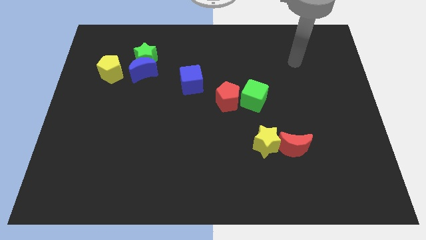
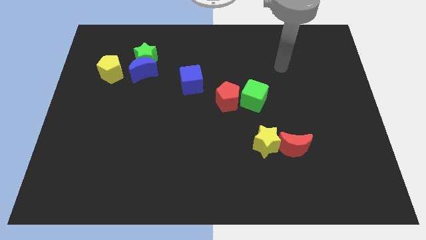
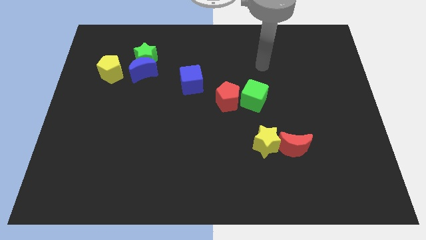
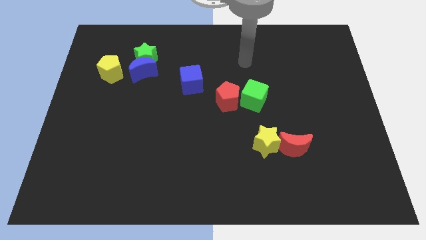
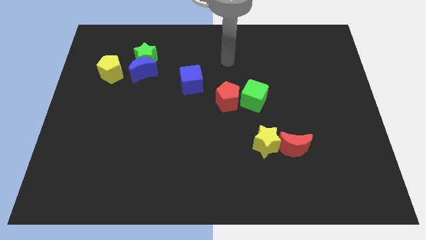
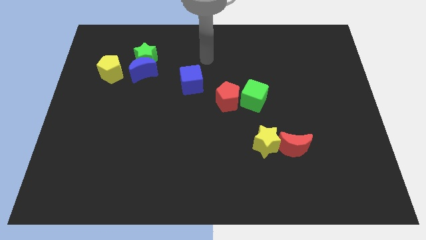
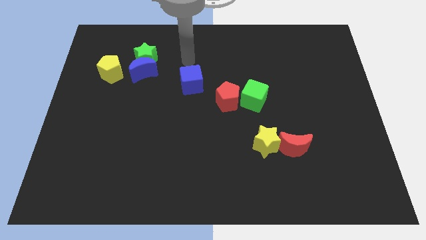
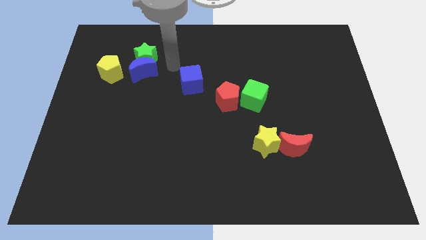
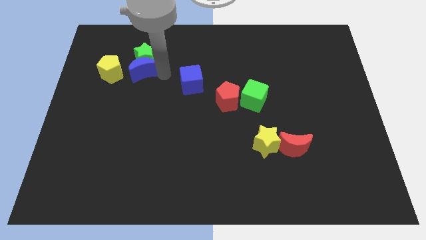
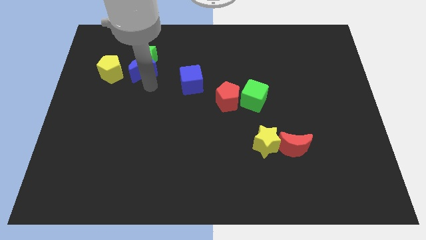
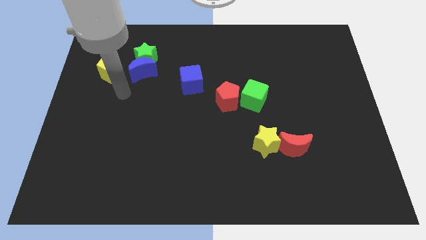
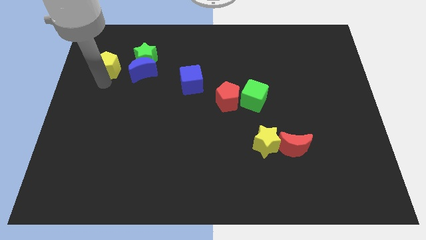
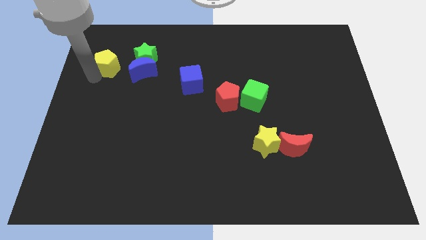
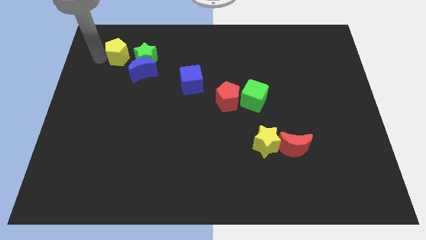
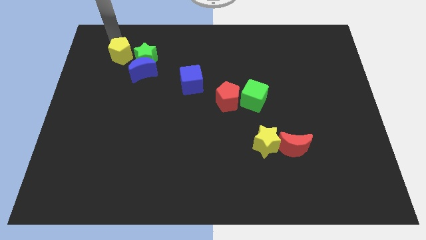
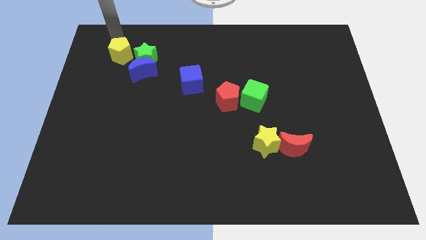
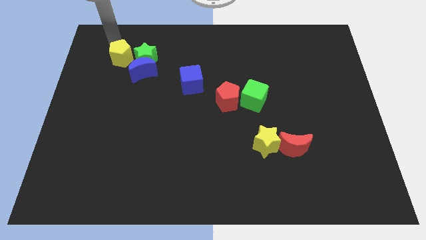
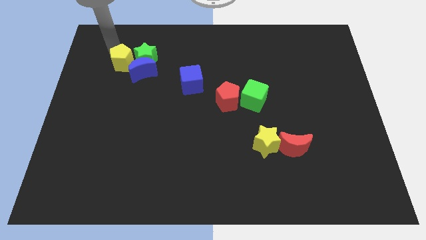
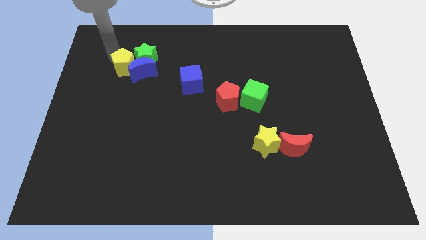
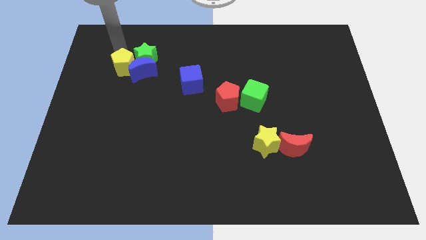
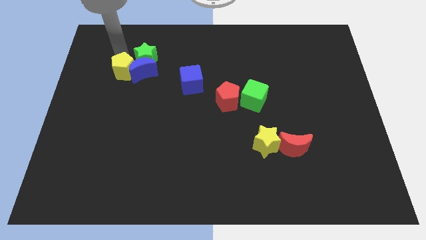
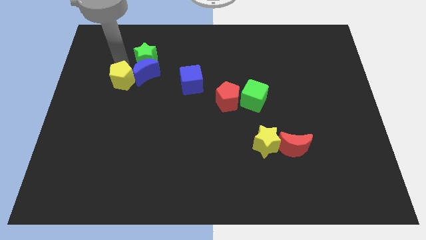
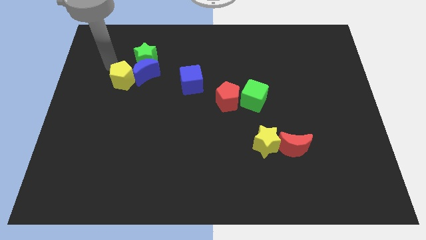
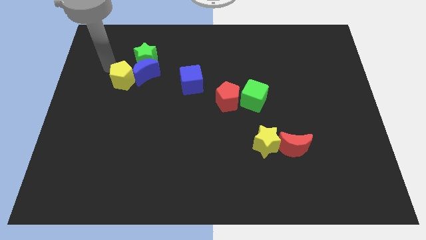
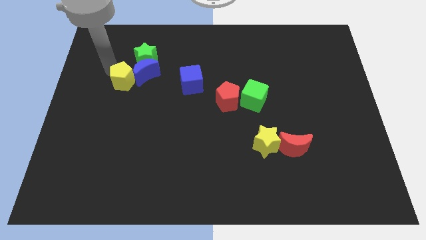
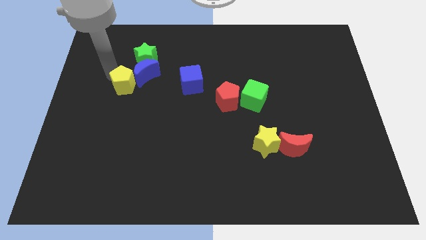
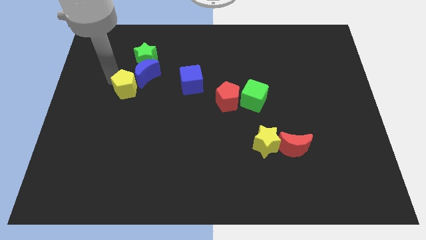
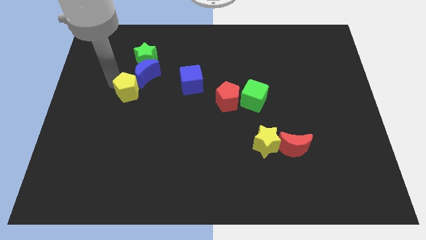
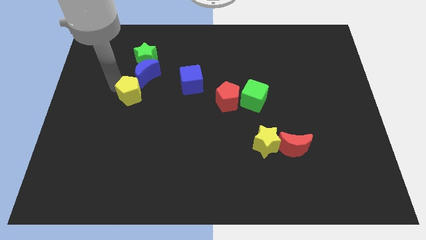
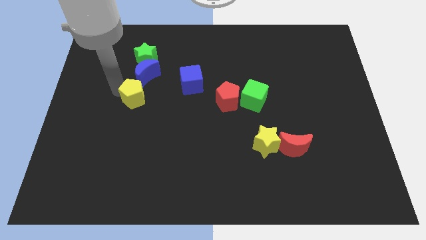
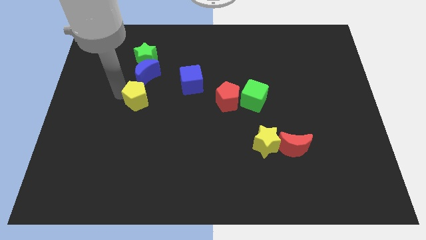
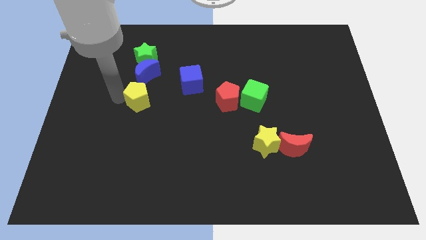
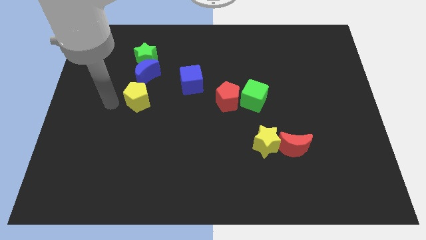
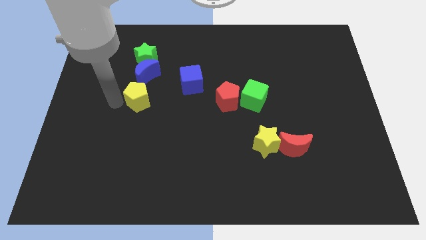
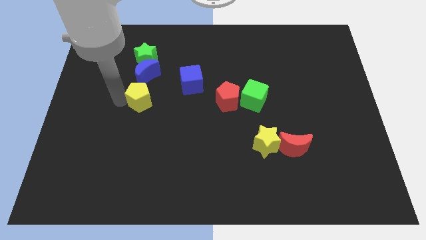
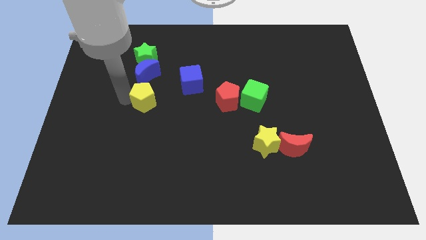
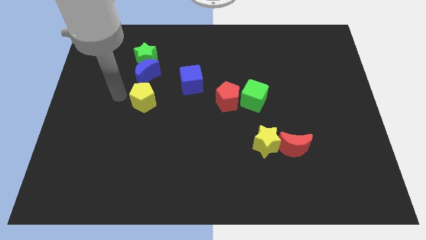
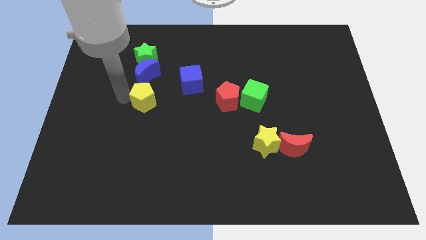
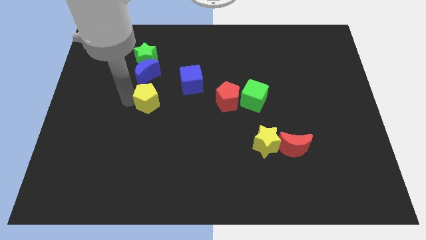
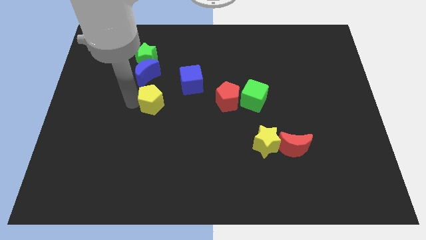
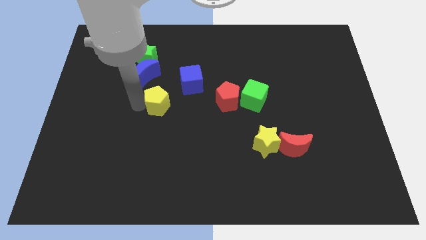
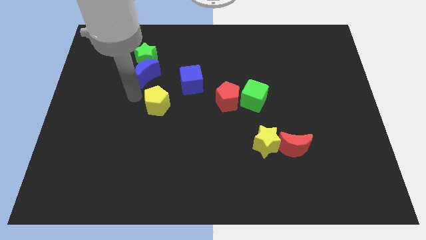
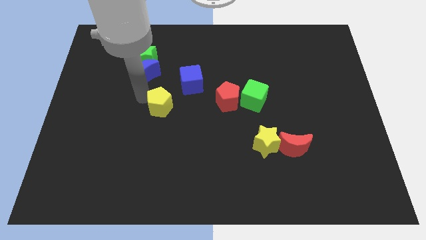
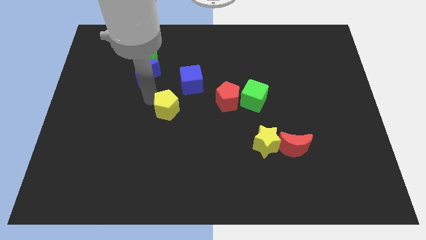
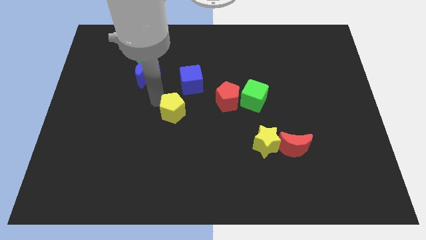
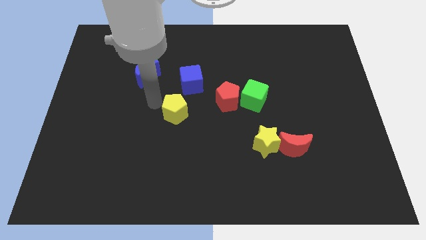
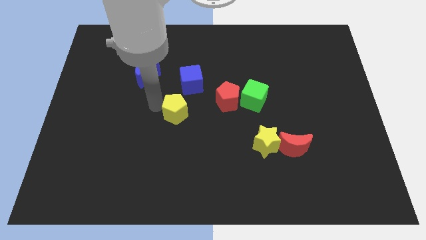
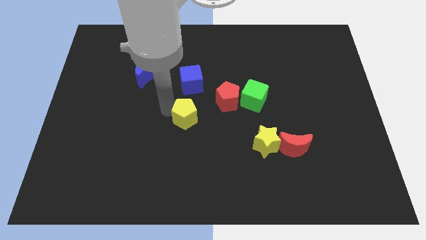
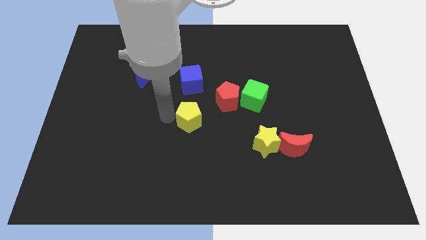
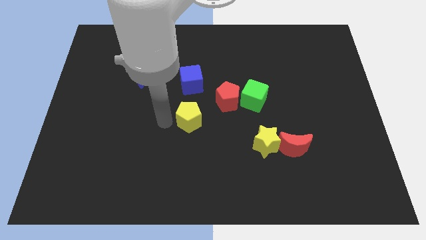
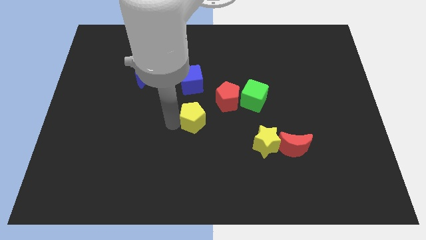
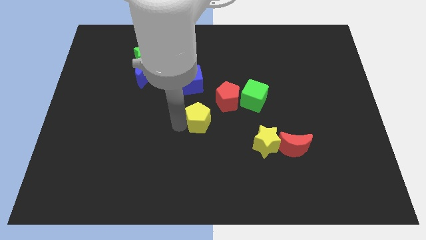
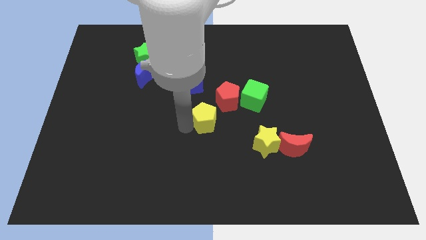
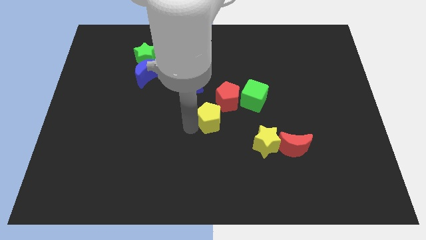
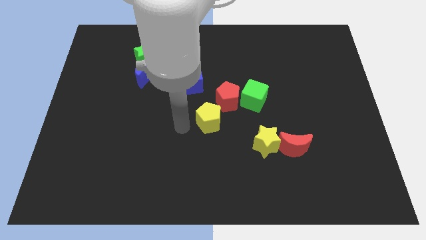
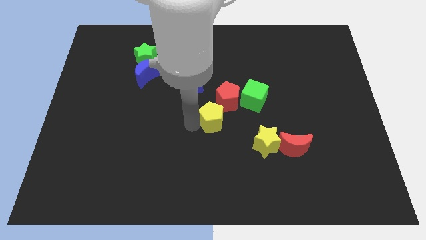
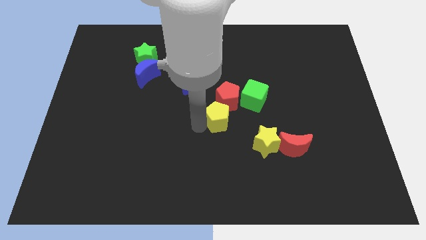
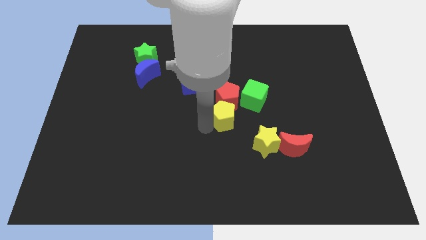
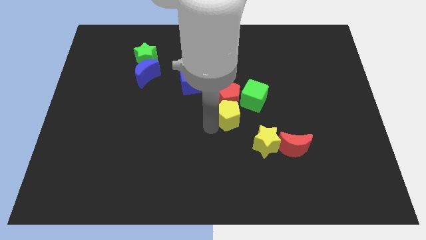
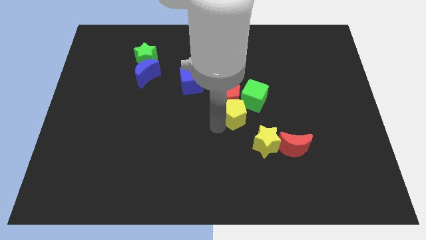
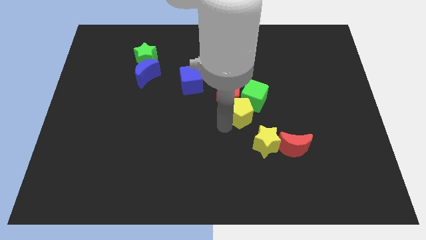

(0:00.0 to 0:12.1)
put the yellow pentagon towards the green cube

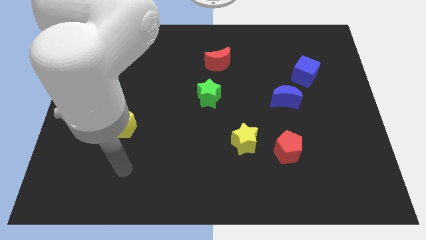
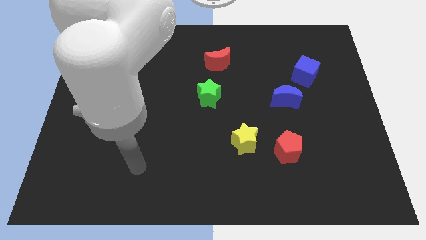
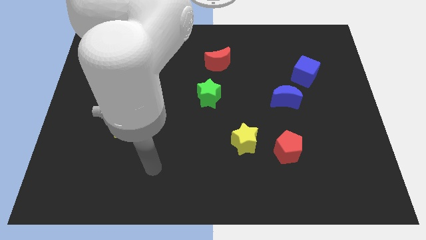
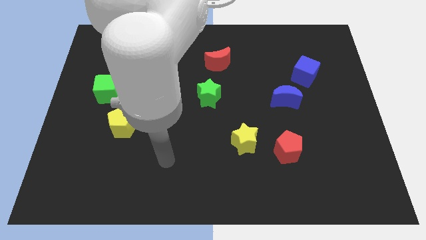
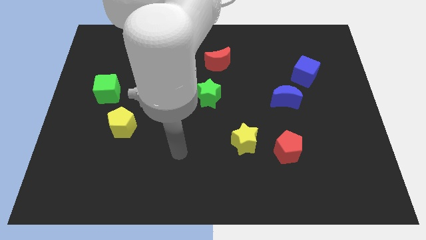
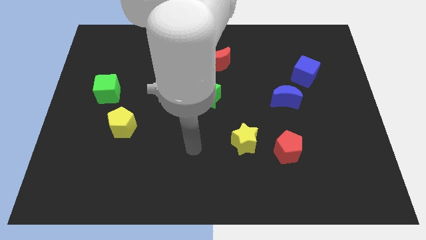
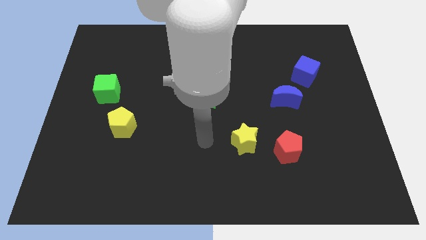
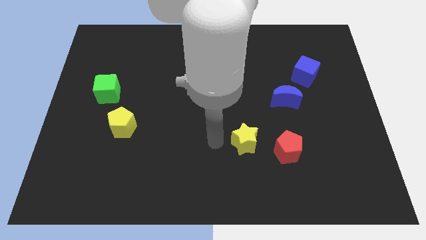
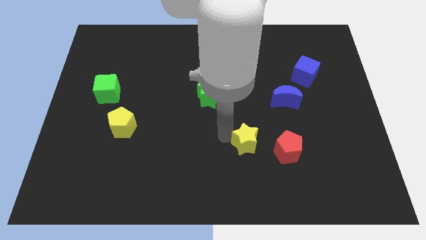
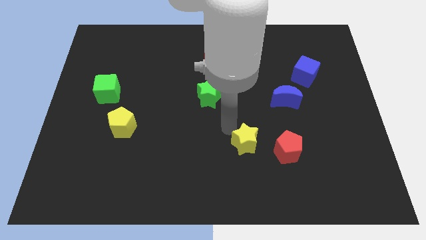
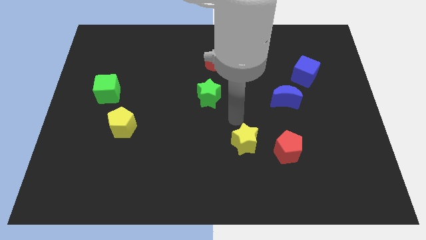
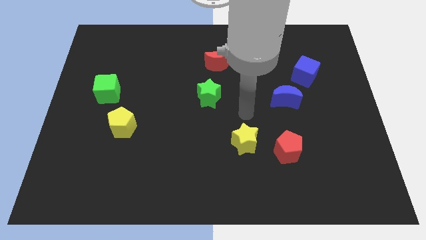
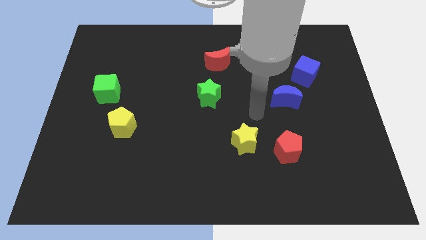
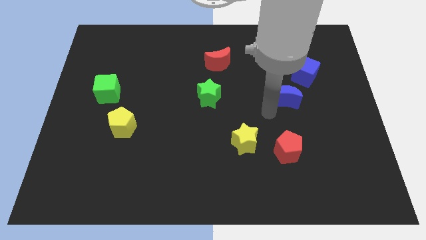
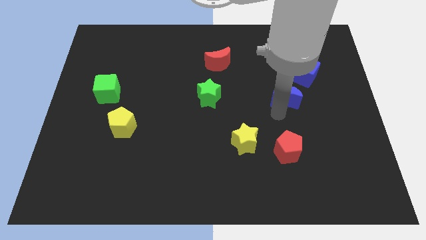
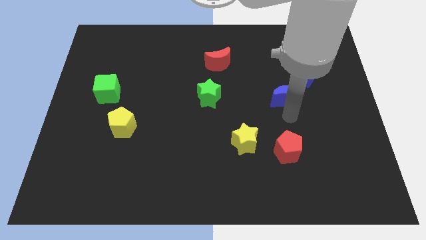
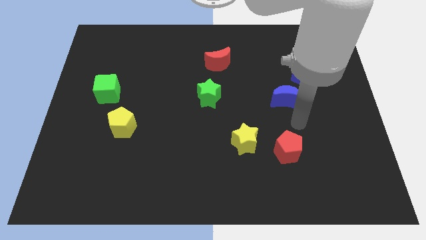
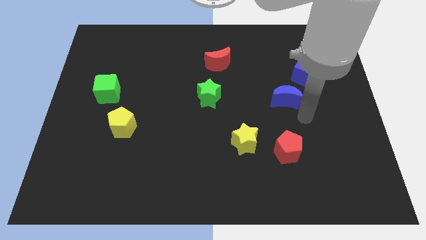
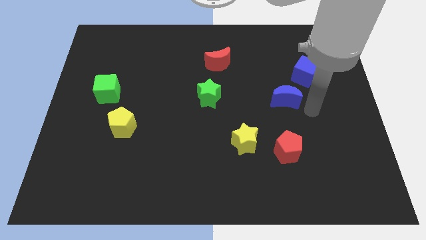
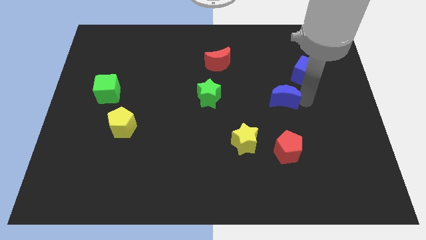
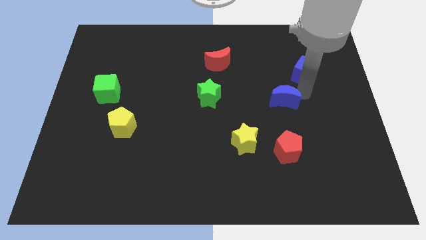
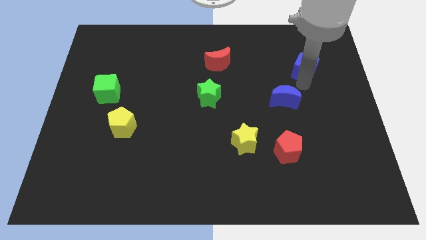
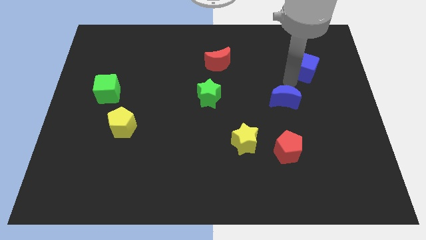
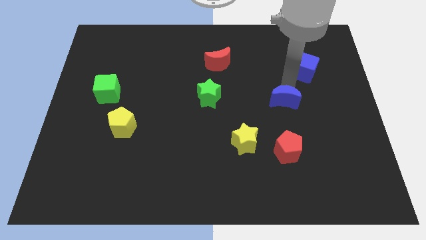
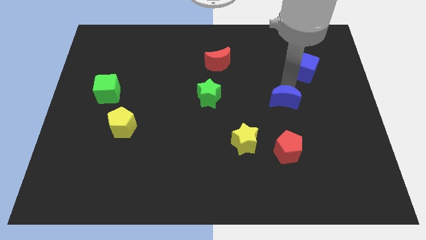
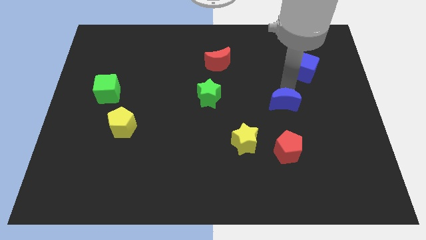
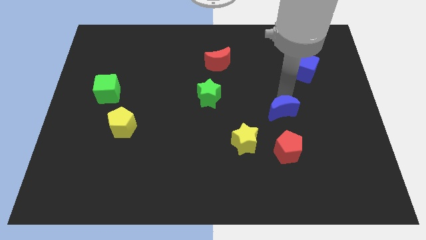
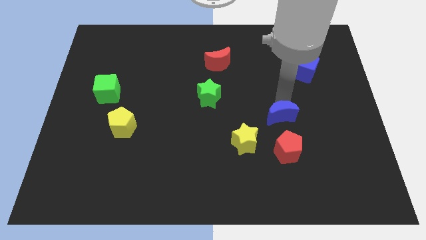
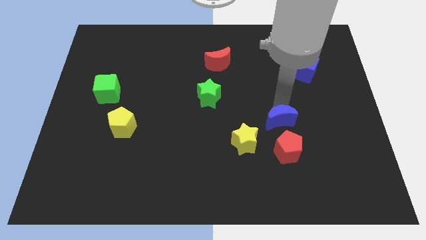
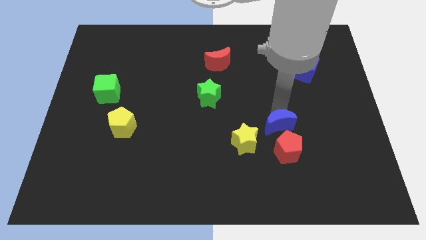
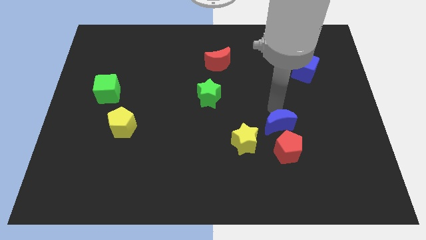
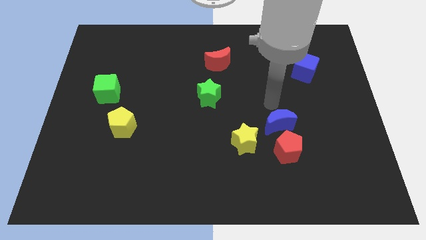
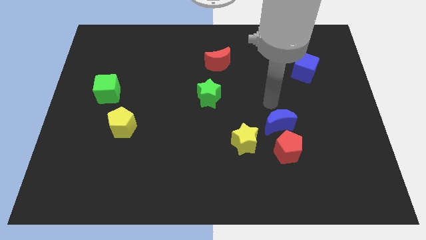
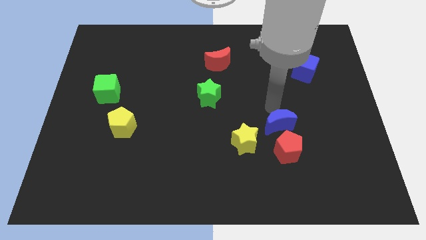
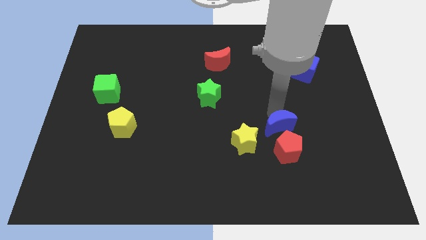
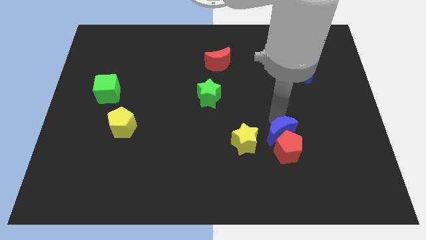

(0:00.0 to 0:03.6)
move the blue moon next to the red pentagon
